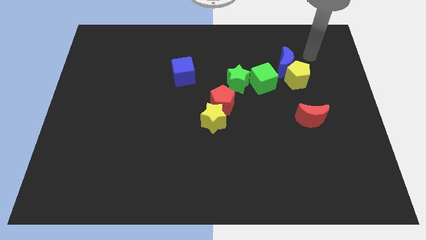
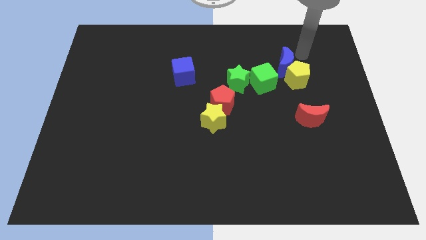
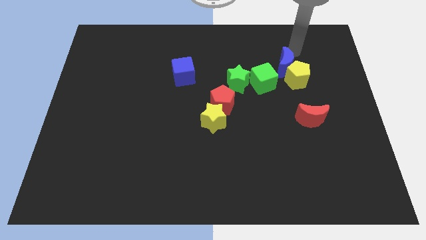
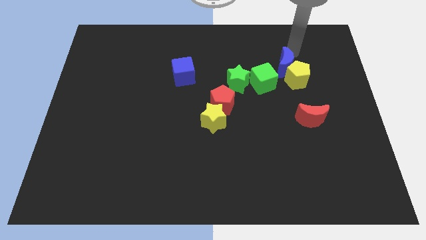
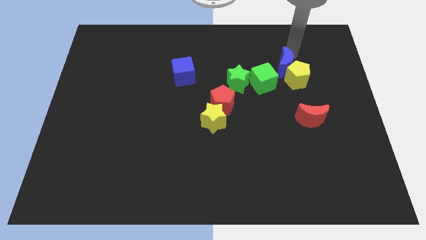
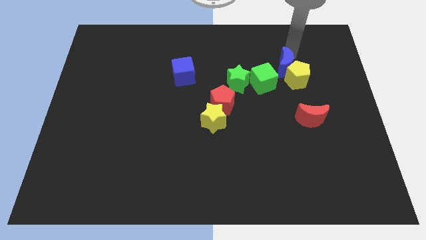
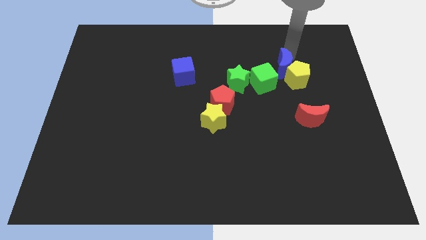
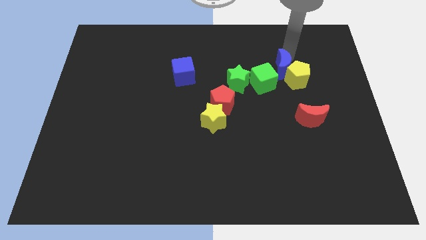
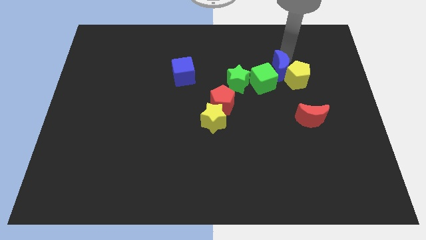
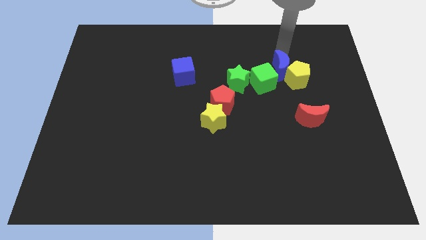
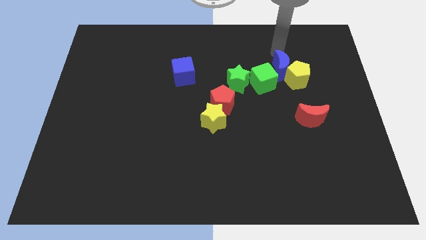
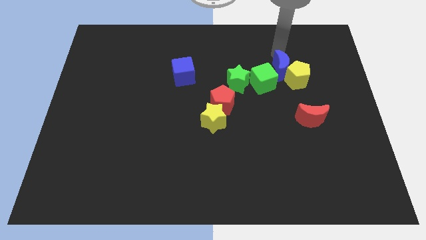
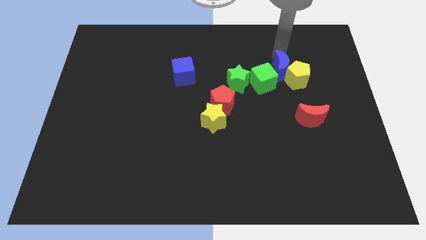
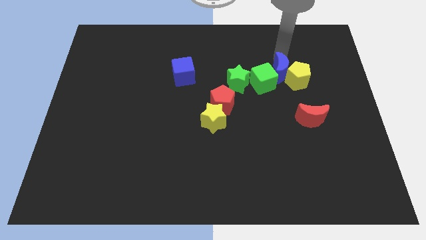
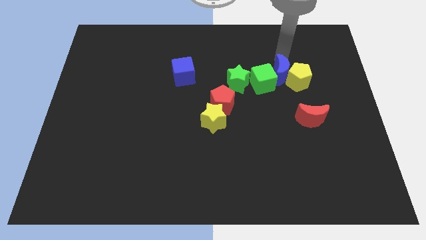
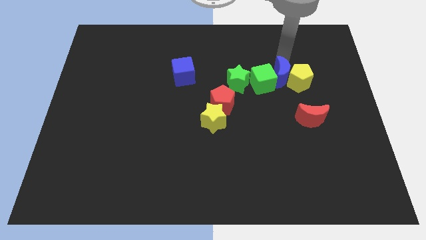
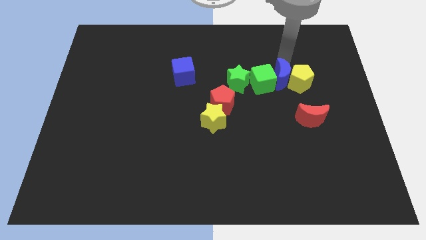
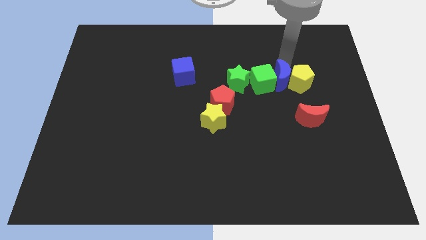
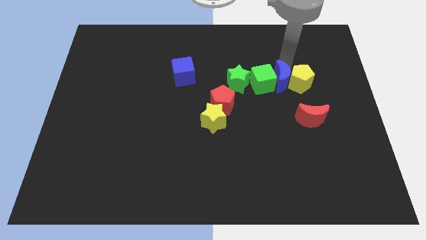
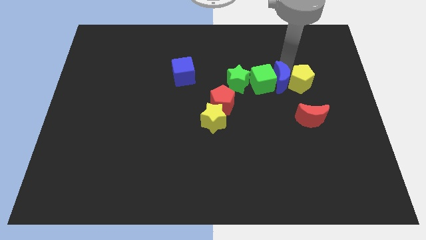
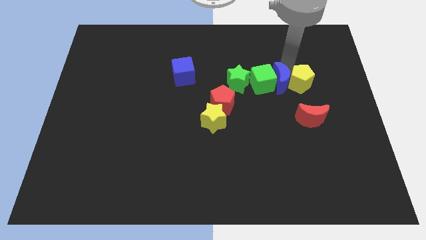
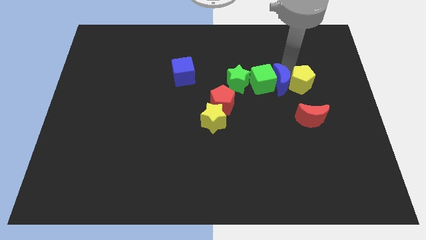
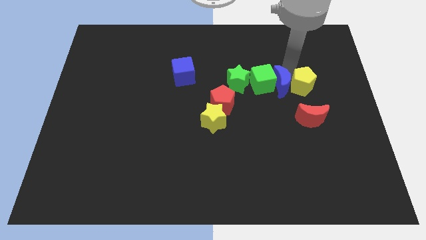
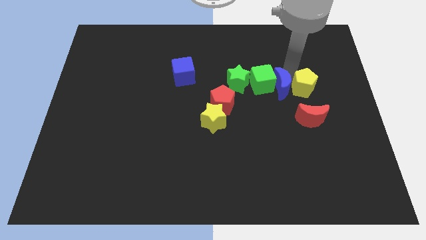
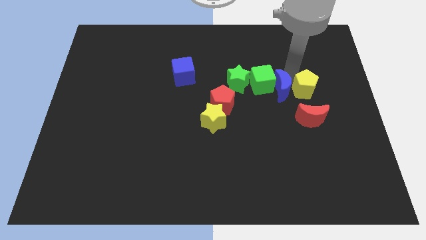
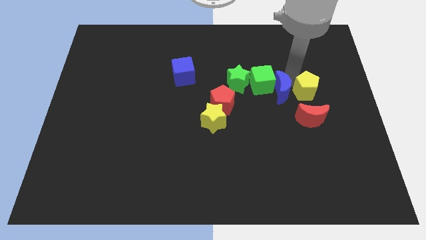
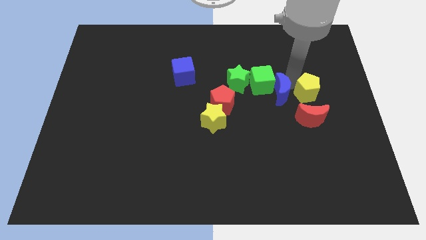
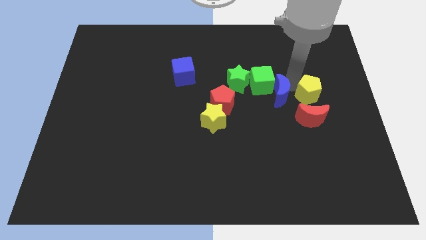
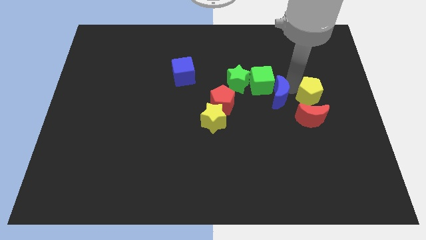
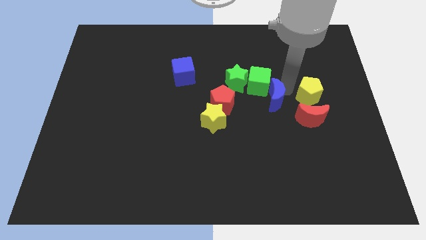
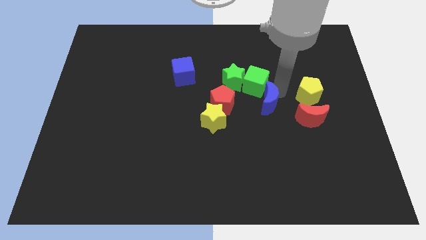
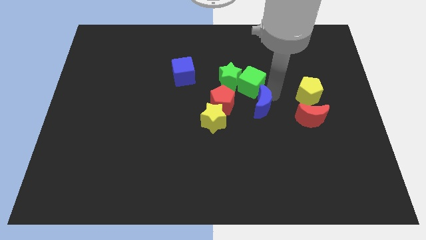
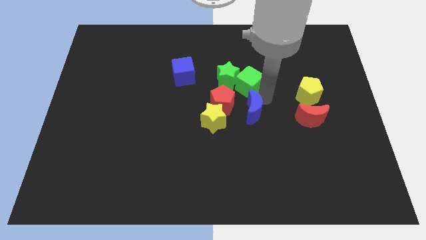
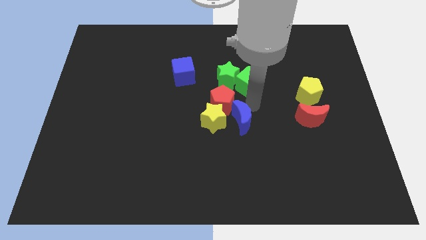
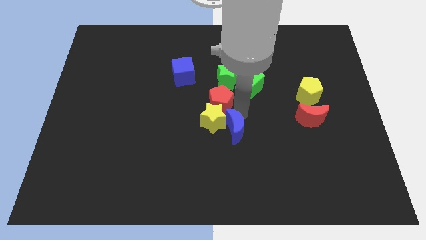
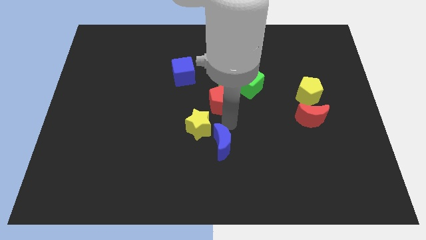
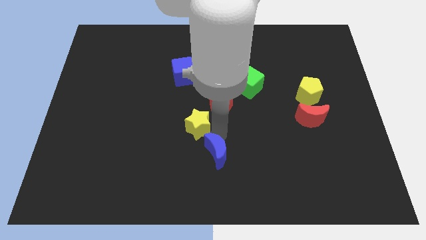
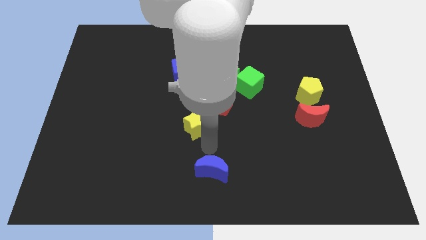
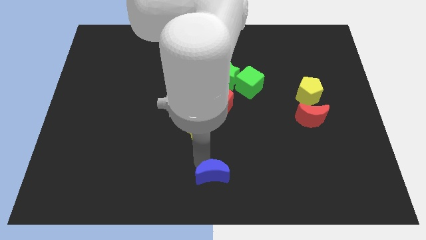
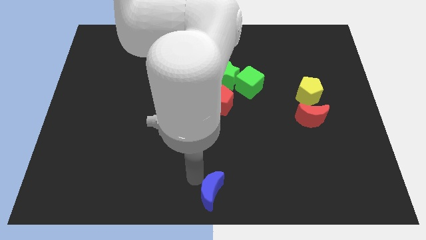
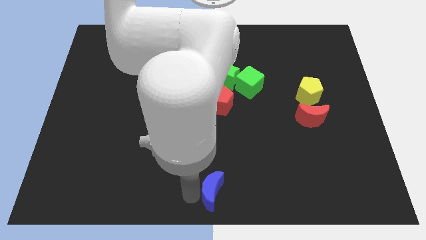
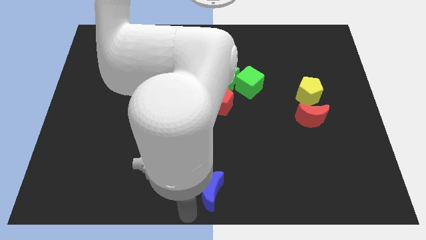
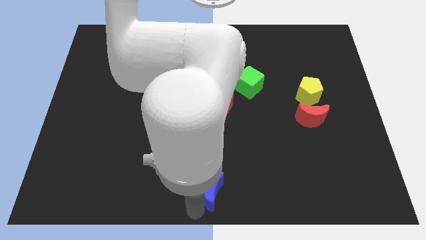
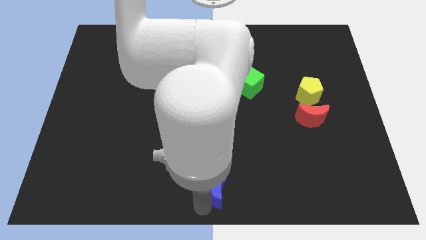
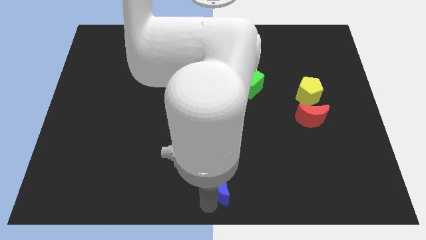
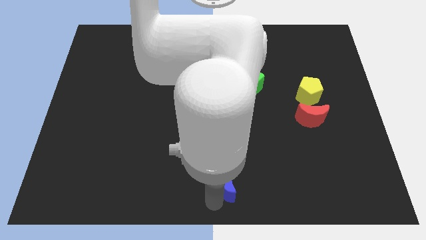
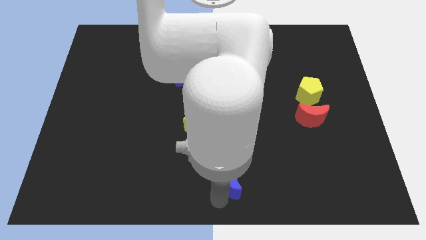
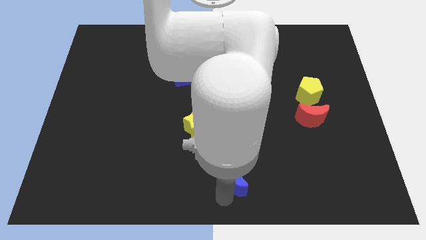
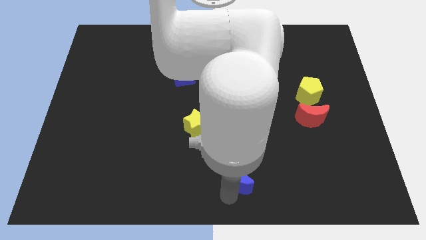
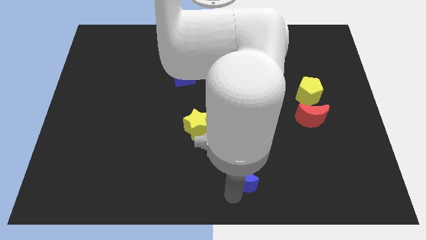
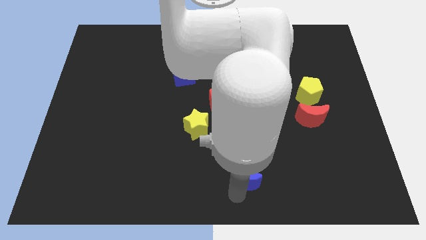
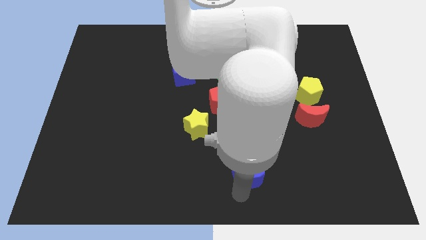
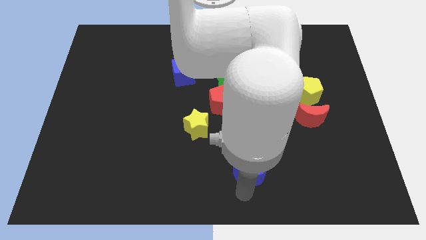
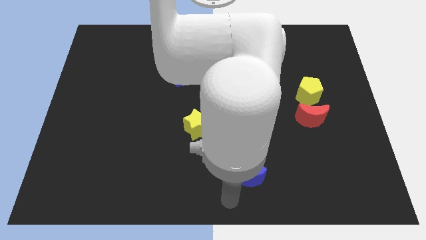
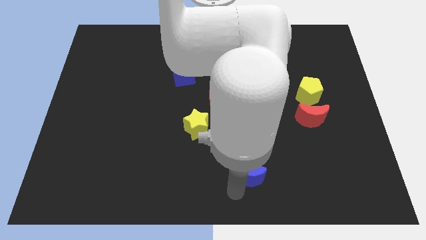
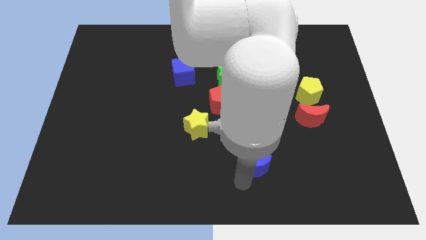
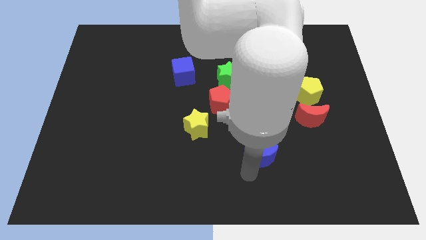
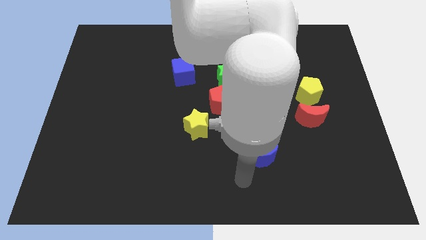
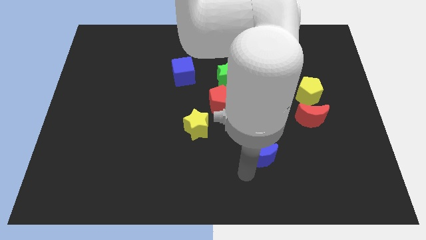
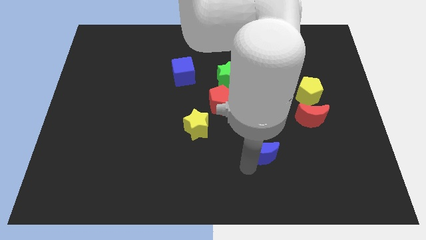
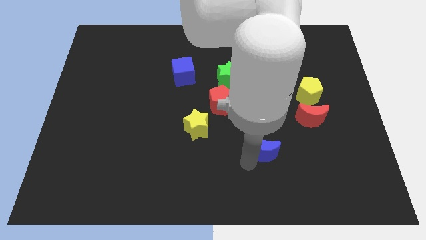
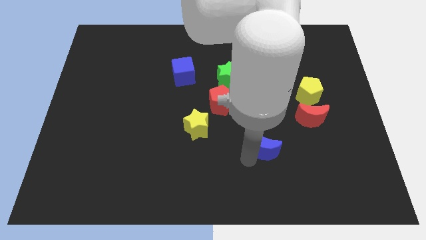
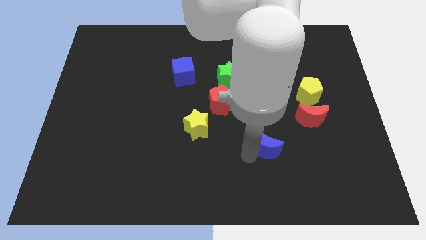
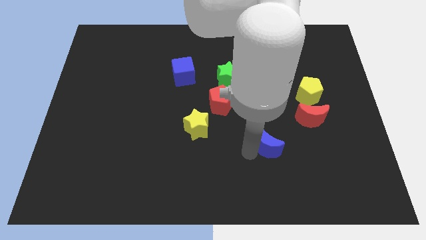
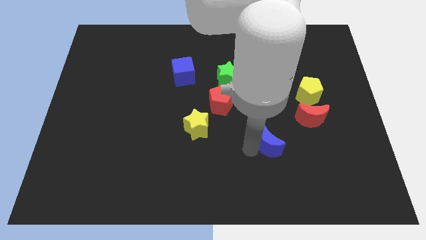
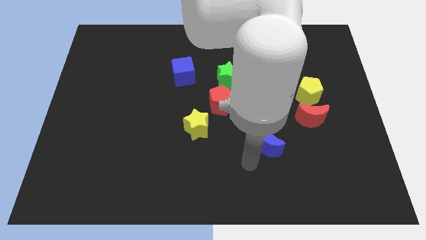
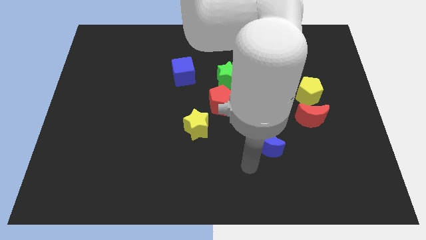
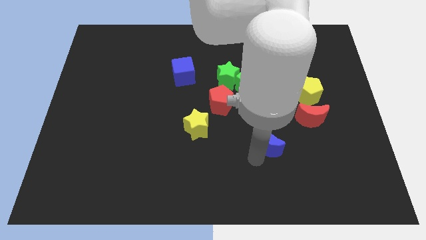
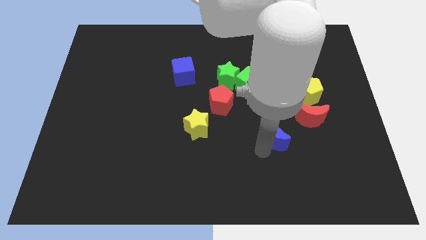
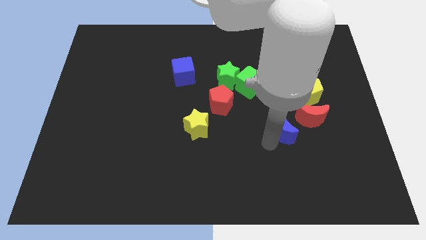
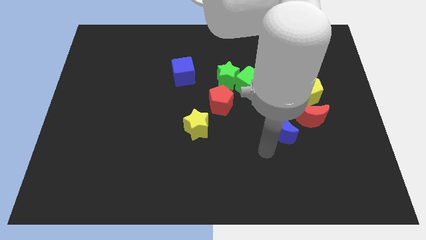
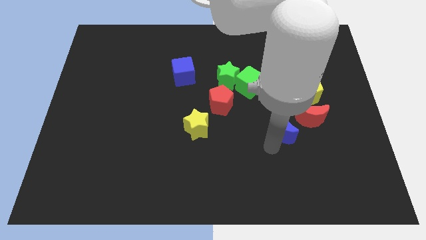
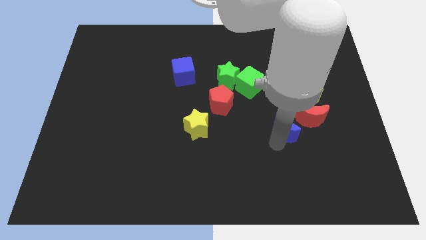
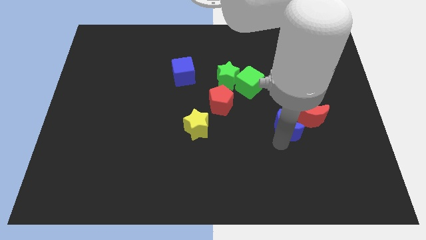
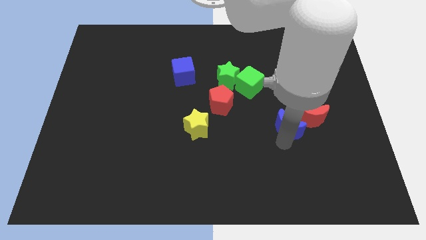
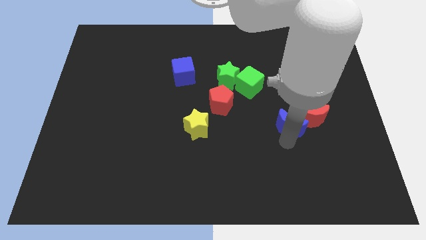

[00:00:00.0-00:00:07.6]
slide the blue moon to the red moon

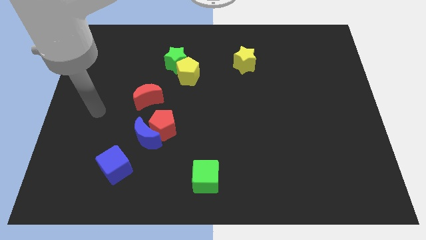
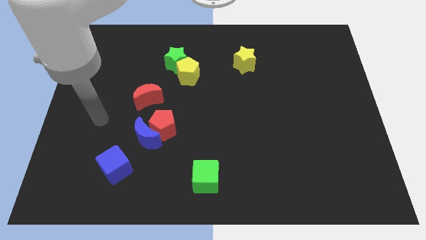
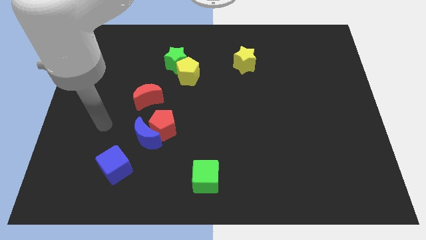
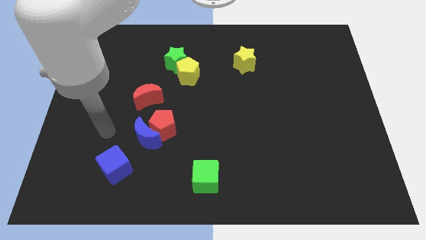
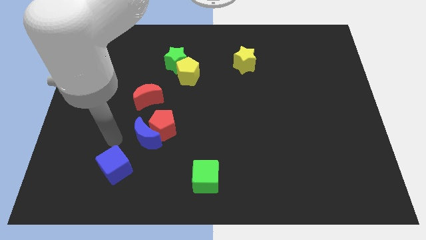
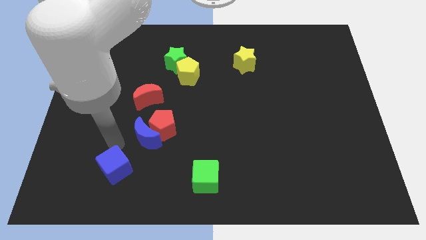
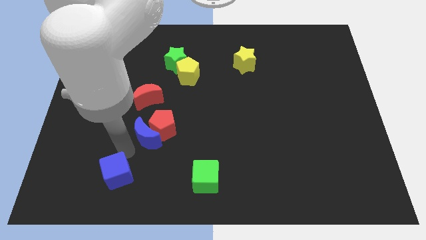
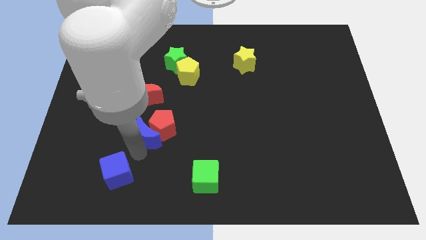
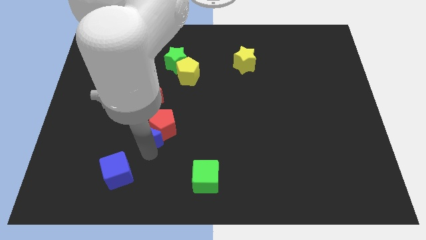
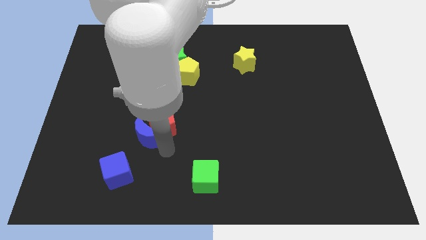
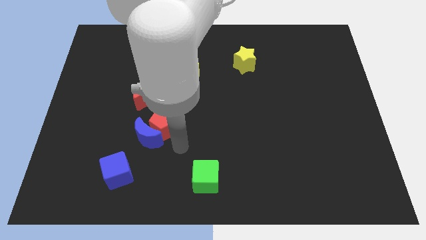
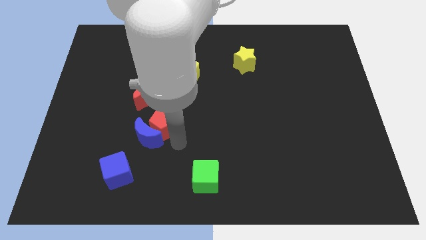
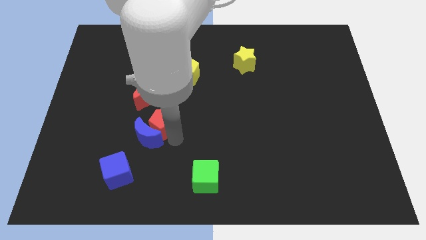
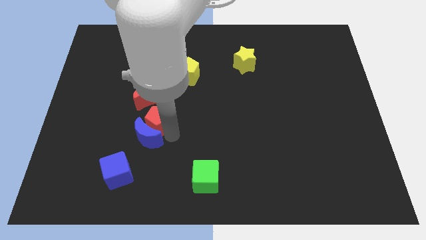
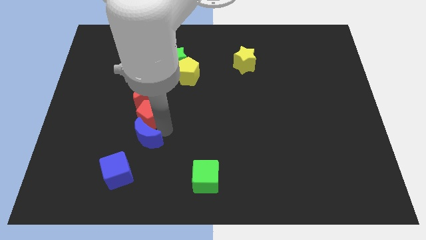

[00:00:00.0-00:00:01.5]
slide the red pentagon next to the red moon
